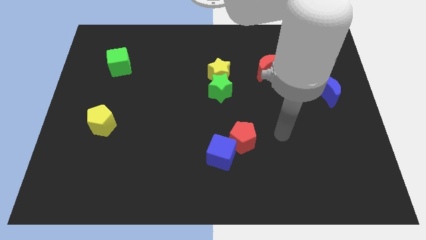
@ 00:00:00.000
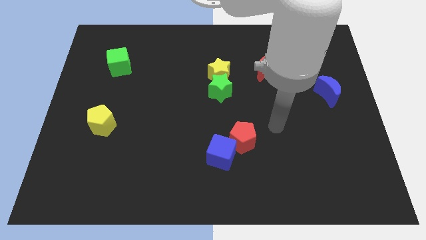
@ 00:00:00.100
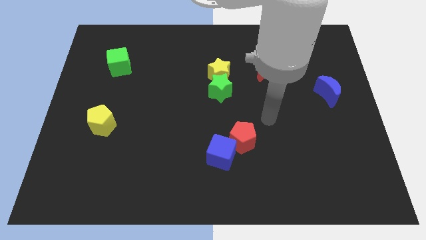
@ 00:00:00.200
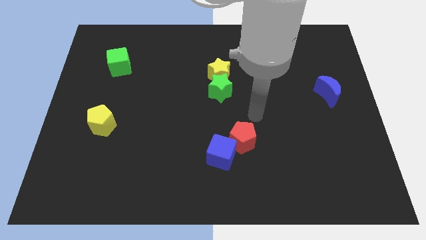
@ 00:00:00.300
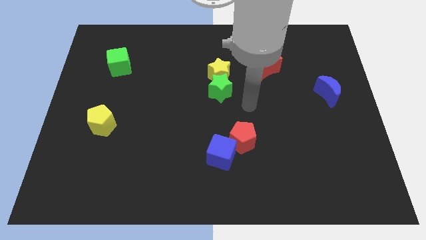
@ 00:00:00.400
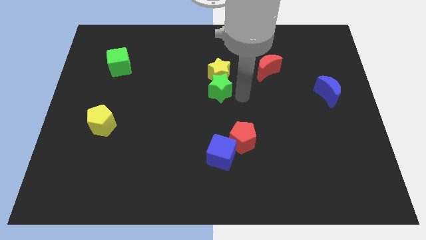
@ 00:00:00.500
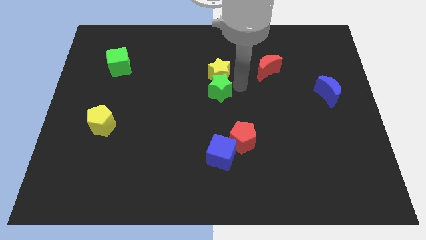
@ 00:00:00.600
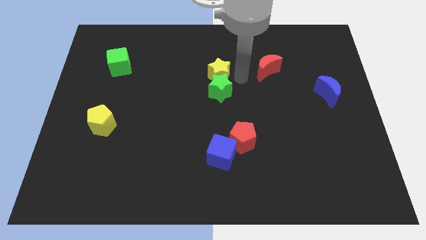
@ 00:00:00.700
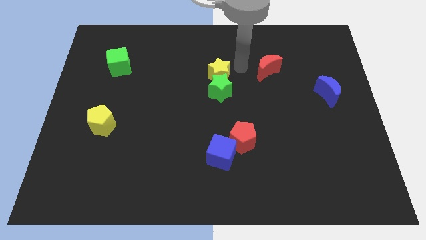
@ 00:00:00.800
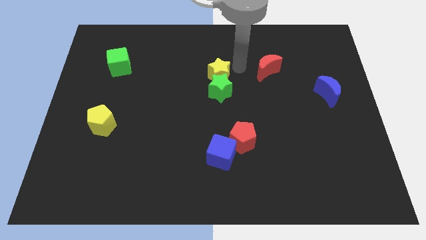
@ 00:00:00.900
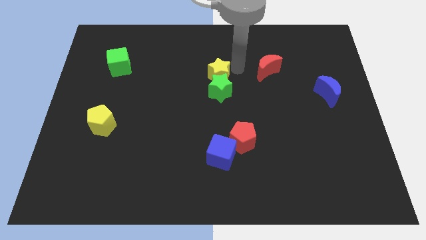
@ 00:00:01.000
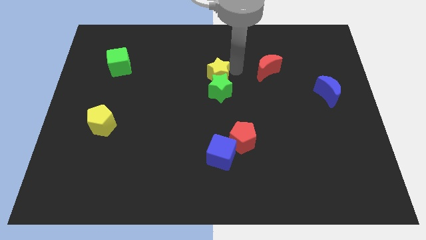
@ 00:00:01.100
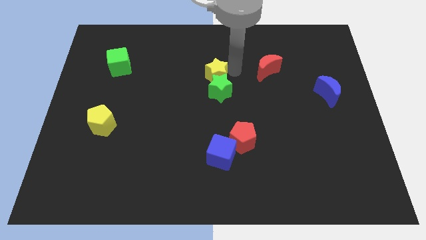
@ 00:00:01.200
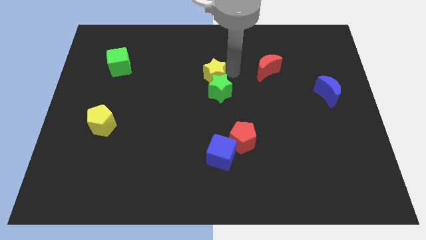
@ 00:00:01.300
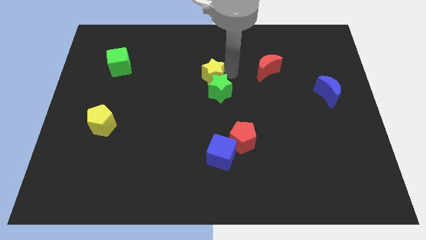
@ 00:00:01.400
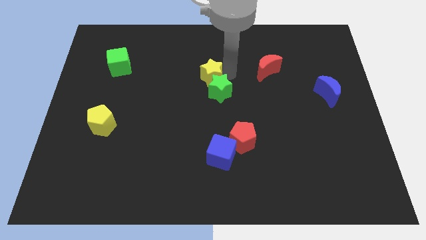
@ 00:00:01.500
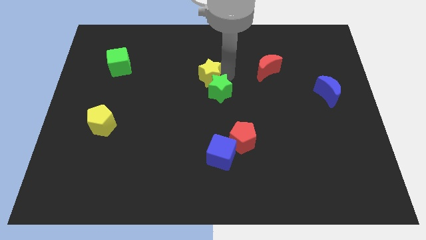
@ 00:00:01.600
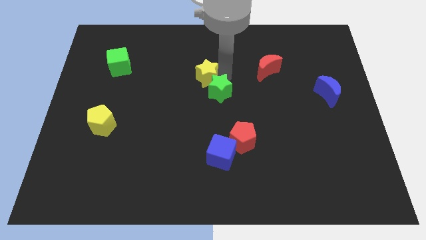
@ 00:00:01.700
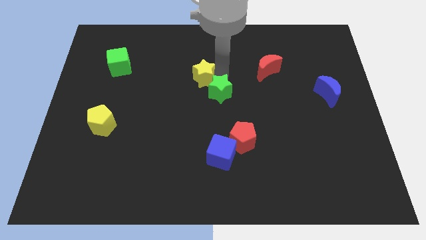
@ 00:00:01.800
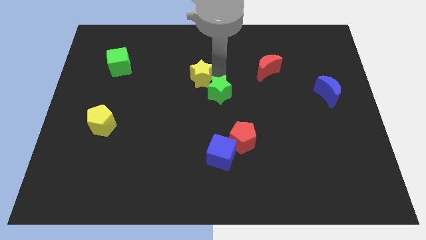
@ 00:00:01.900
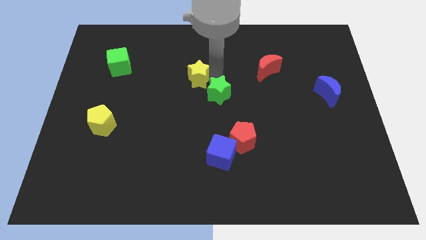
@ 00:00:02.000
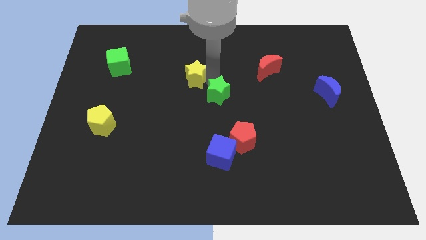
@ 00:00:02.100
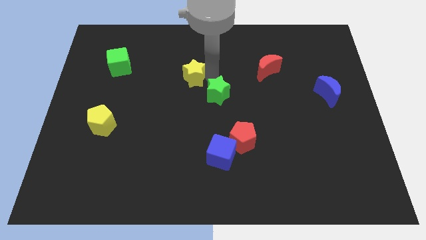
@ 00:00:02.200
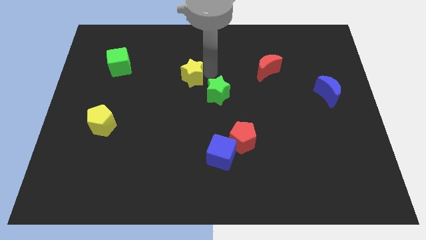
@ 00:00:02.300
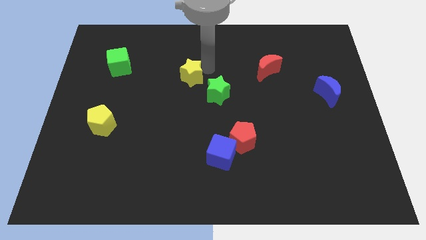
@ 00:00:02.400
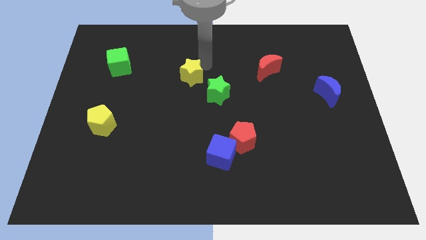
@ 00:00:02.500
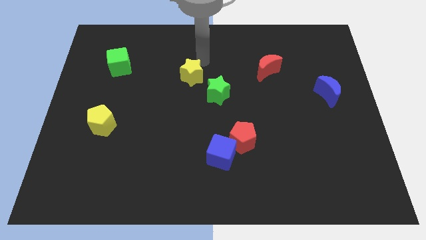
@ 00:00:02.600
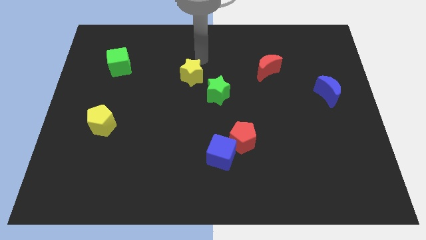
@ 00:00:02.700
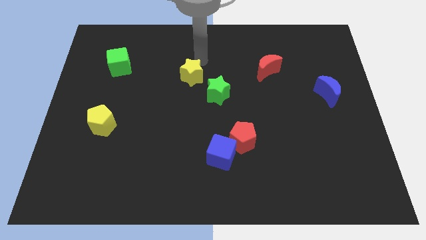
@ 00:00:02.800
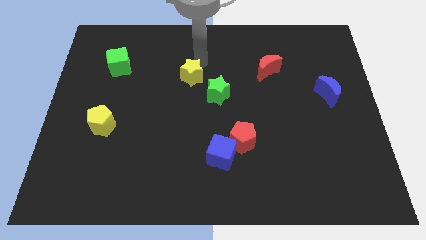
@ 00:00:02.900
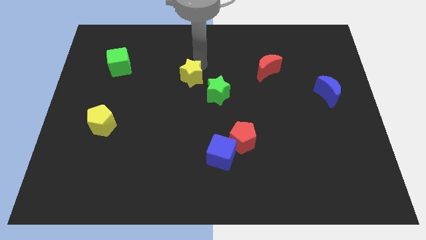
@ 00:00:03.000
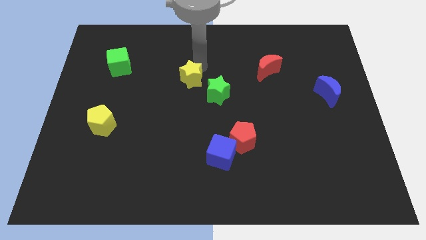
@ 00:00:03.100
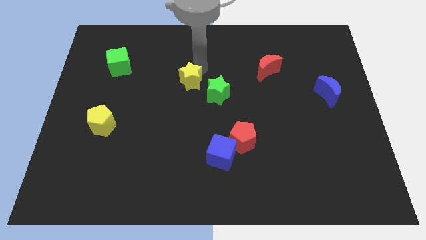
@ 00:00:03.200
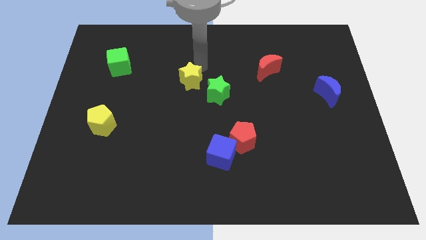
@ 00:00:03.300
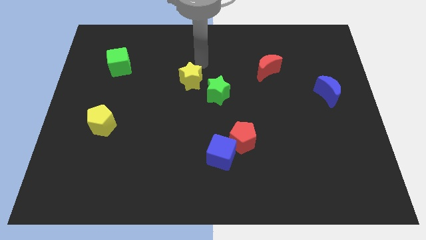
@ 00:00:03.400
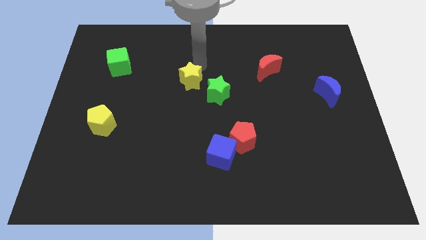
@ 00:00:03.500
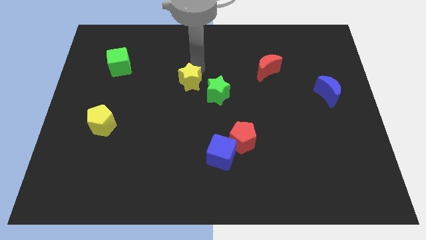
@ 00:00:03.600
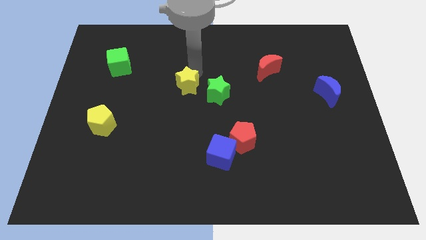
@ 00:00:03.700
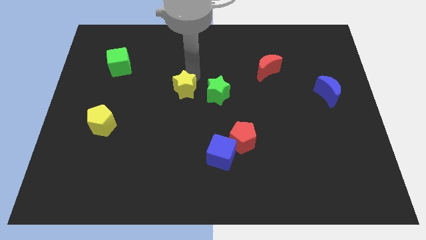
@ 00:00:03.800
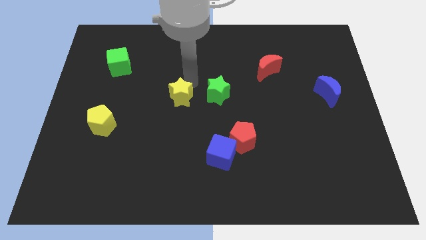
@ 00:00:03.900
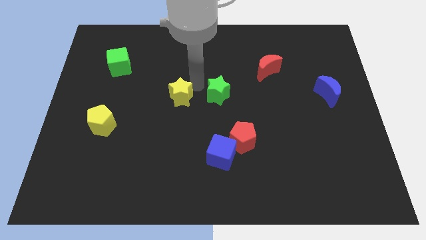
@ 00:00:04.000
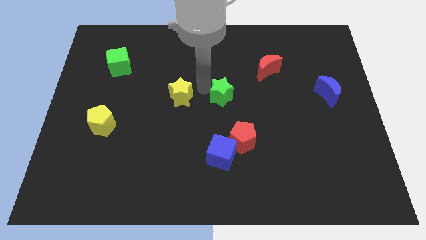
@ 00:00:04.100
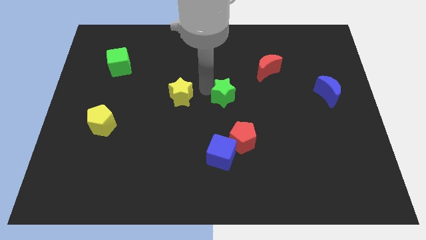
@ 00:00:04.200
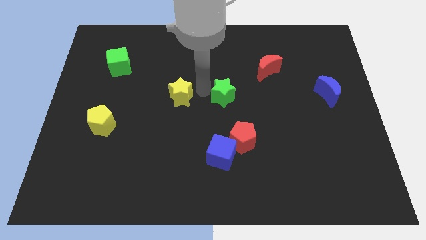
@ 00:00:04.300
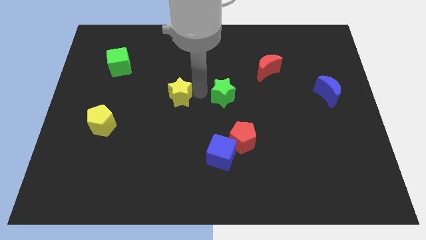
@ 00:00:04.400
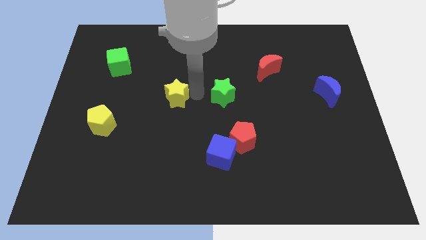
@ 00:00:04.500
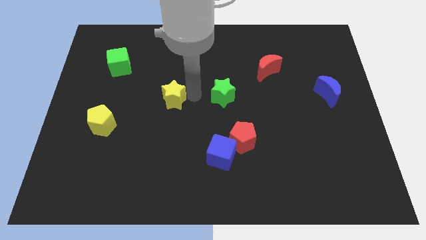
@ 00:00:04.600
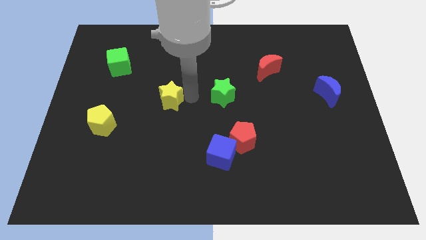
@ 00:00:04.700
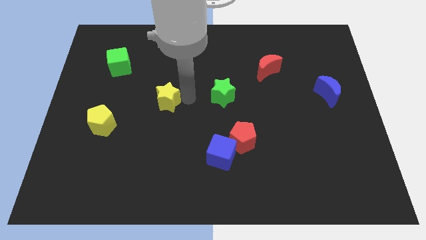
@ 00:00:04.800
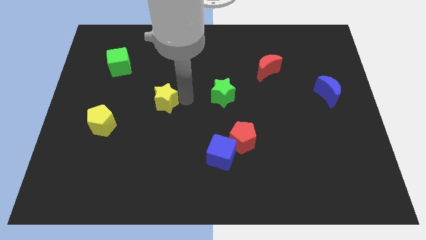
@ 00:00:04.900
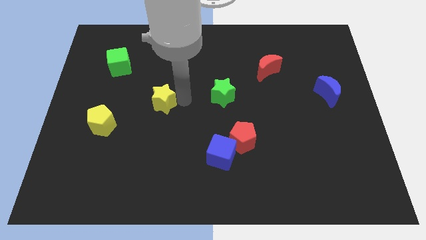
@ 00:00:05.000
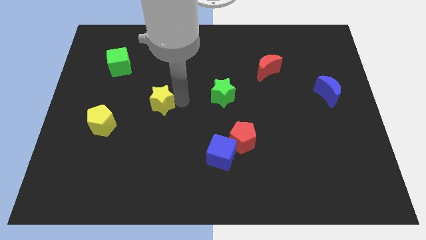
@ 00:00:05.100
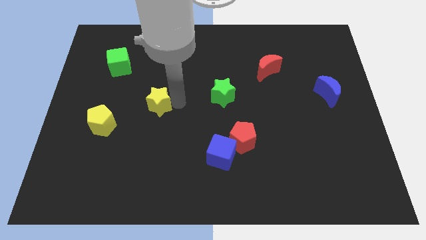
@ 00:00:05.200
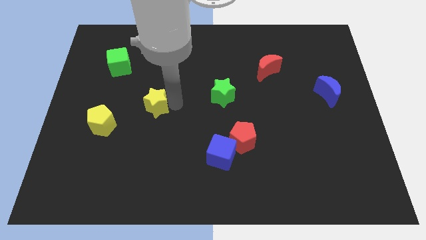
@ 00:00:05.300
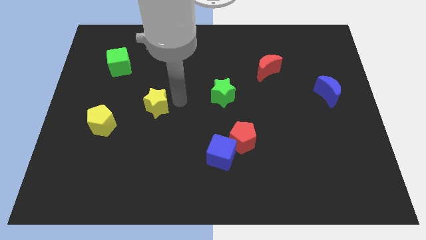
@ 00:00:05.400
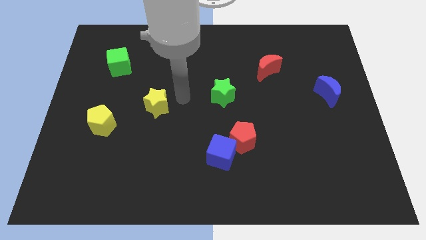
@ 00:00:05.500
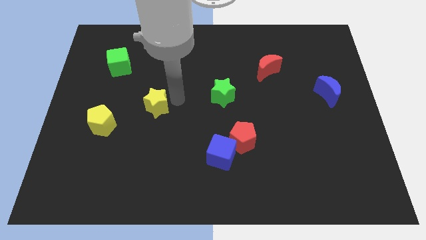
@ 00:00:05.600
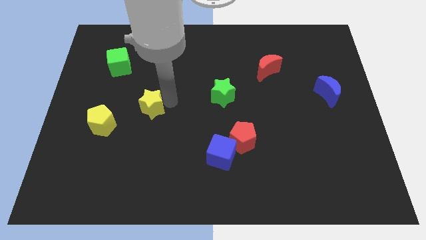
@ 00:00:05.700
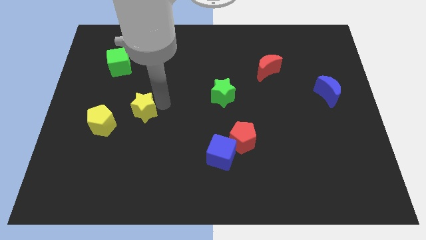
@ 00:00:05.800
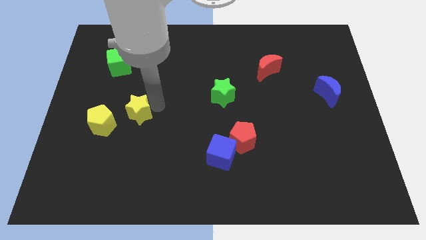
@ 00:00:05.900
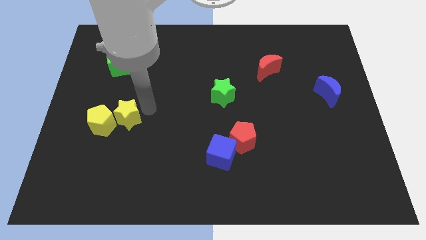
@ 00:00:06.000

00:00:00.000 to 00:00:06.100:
move the yellow star close to the yellow pentagon

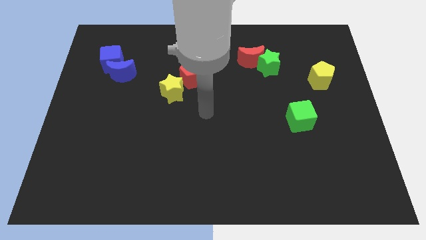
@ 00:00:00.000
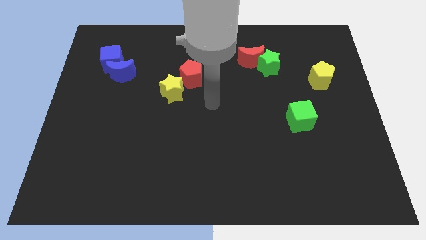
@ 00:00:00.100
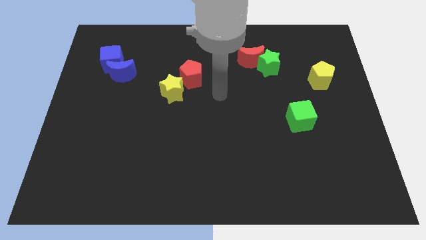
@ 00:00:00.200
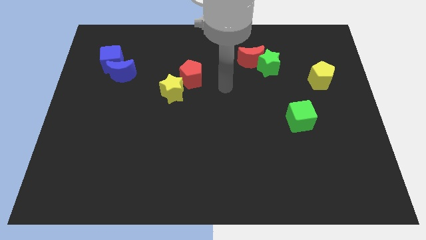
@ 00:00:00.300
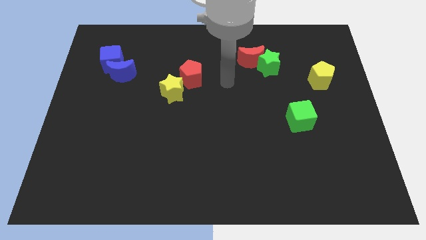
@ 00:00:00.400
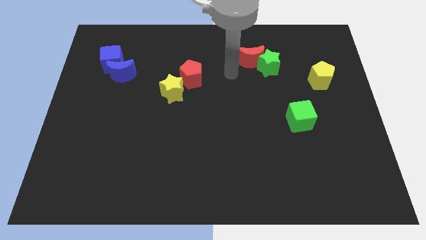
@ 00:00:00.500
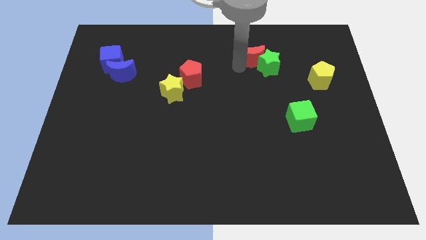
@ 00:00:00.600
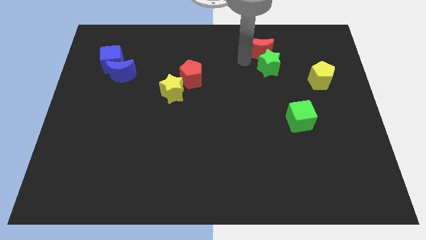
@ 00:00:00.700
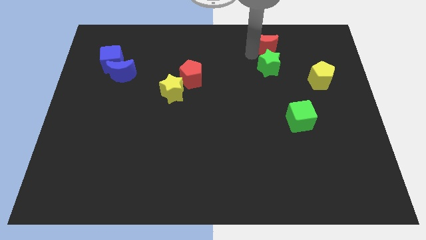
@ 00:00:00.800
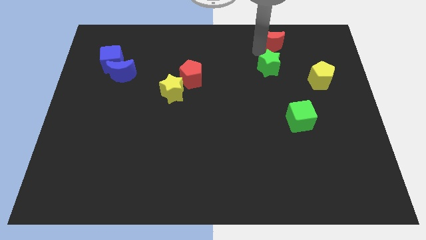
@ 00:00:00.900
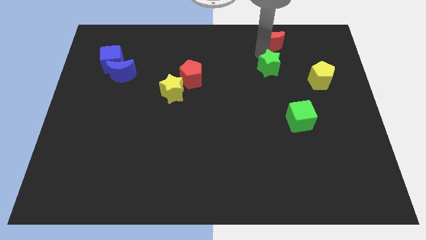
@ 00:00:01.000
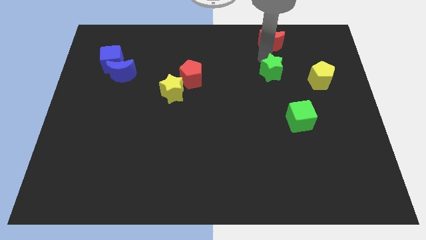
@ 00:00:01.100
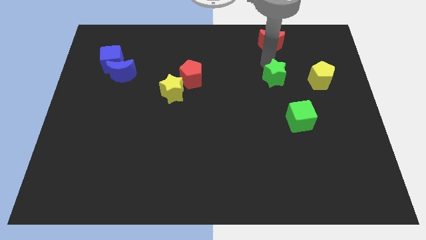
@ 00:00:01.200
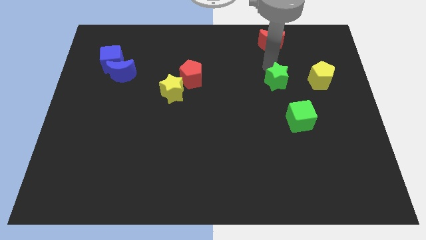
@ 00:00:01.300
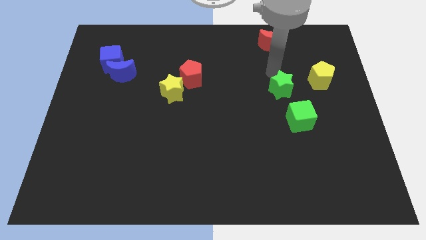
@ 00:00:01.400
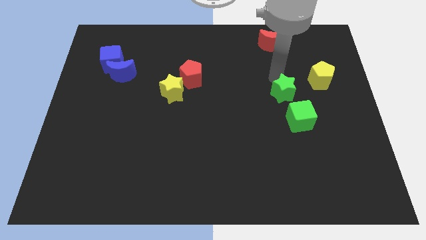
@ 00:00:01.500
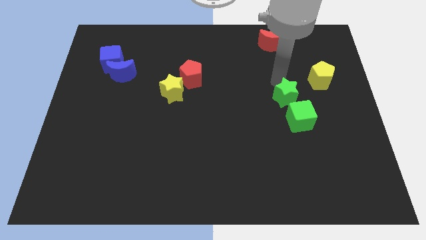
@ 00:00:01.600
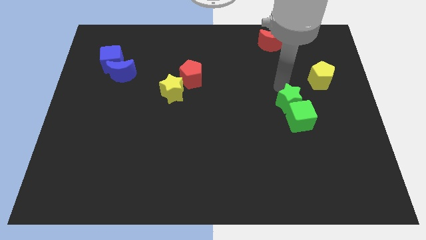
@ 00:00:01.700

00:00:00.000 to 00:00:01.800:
push the green star close to the green cube
